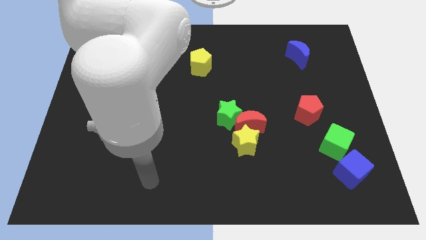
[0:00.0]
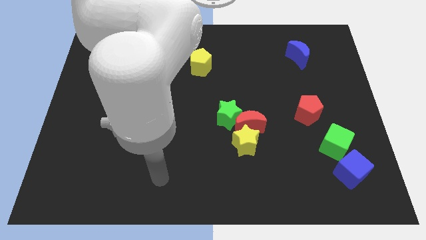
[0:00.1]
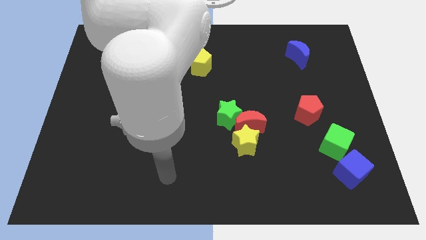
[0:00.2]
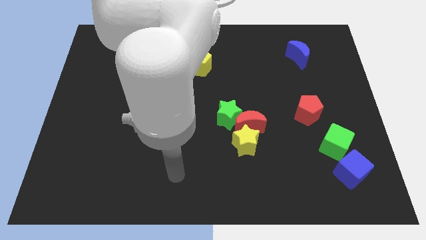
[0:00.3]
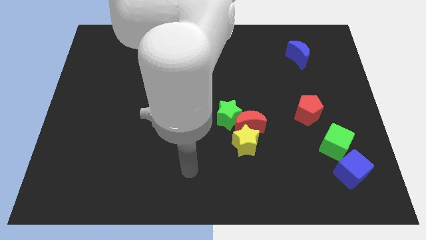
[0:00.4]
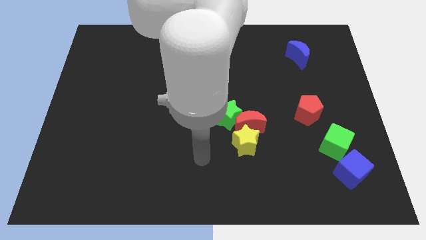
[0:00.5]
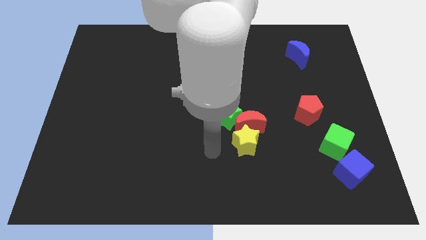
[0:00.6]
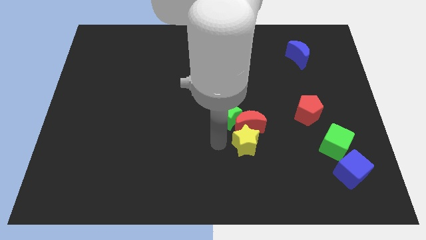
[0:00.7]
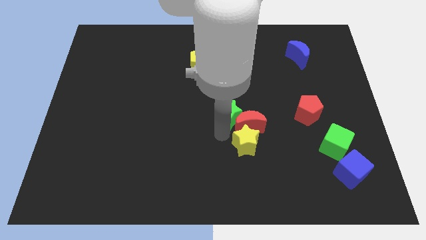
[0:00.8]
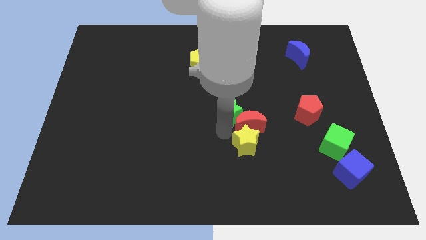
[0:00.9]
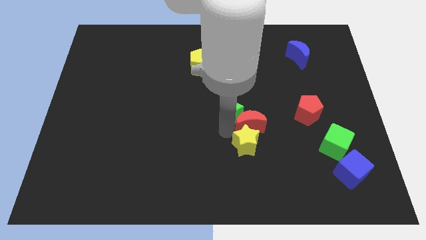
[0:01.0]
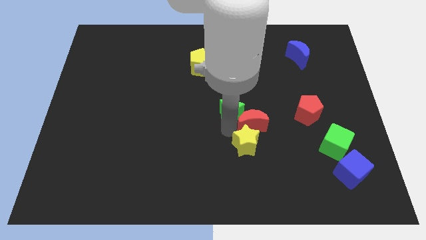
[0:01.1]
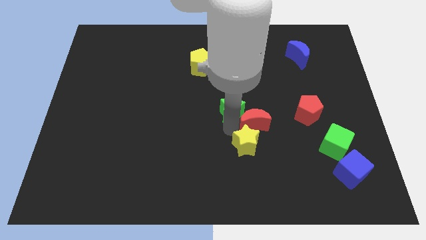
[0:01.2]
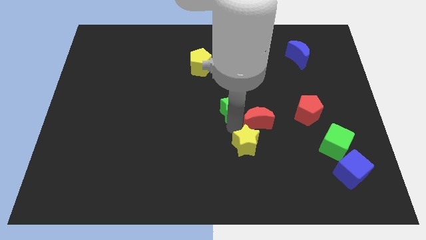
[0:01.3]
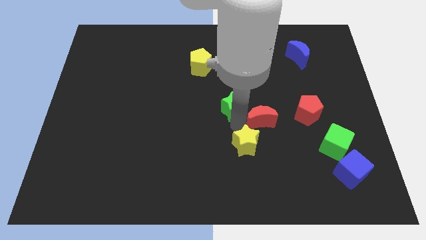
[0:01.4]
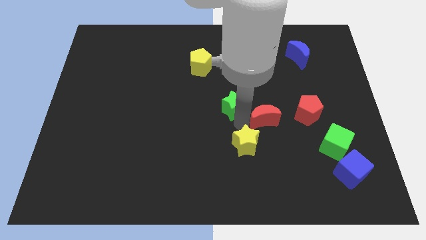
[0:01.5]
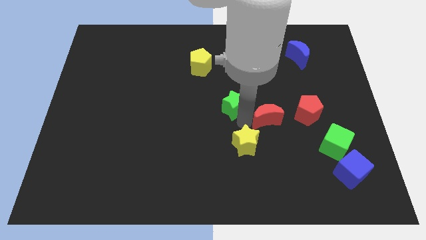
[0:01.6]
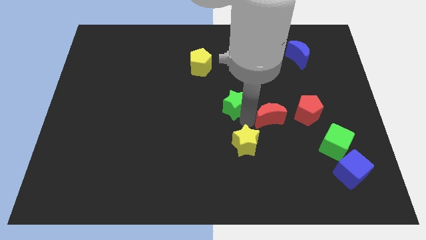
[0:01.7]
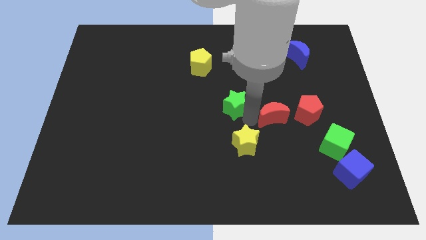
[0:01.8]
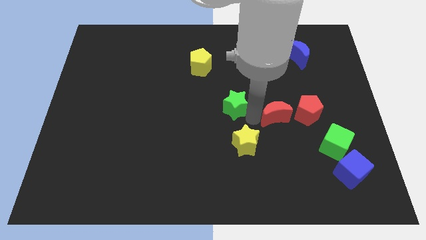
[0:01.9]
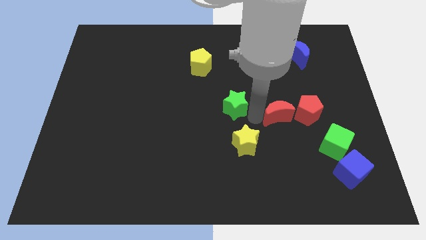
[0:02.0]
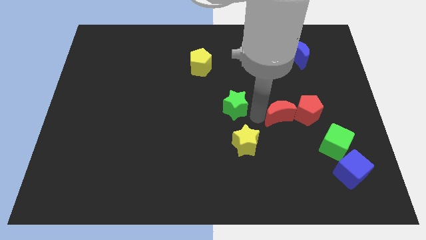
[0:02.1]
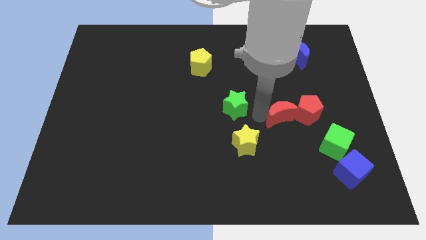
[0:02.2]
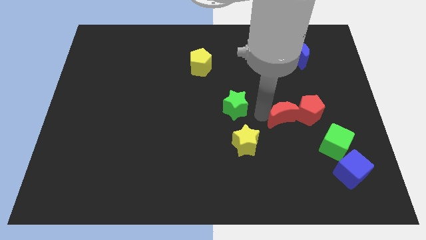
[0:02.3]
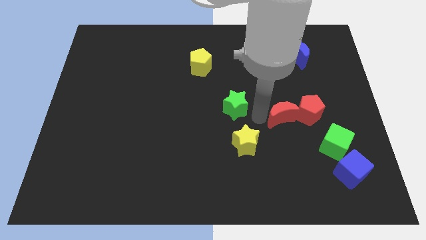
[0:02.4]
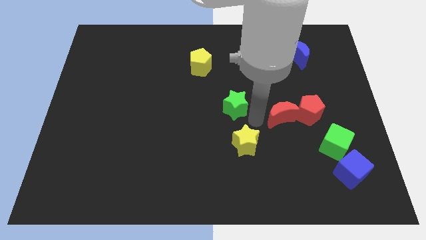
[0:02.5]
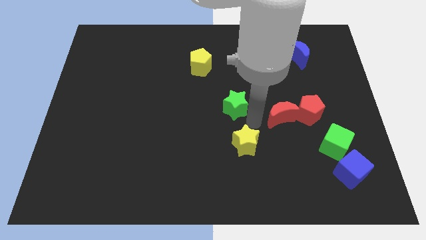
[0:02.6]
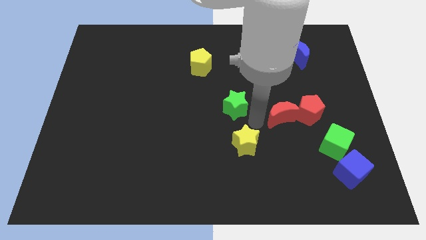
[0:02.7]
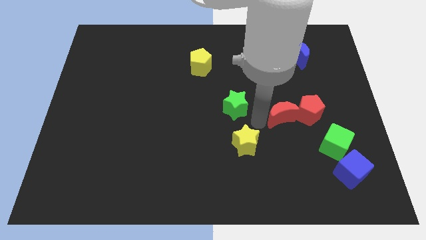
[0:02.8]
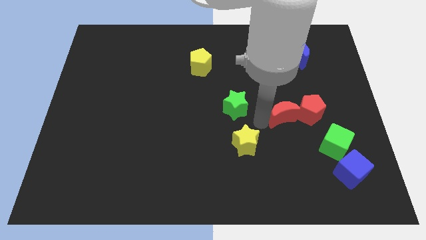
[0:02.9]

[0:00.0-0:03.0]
separate the red moon from the yellow star and green star

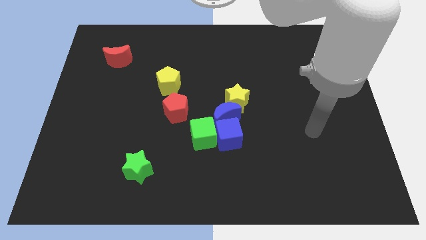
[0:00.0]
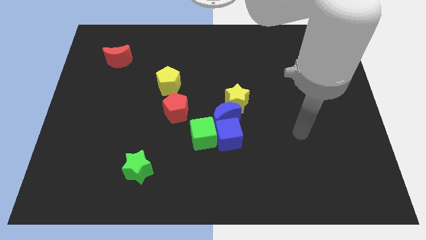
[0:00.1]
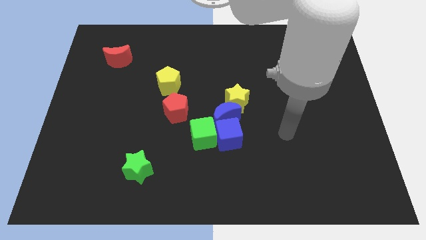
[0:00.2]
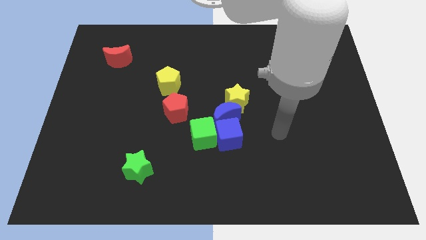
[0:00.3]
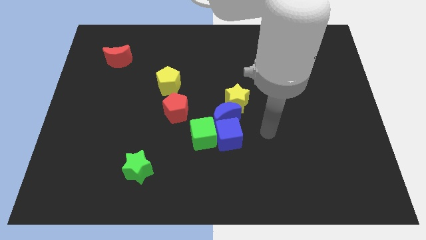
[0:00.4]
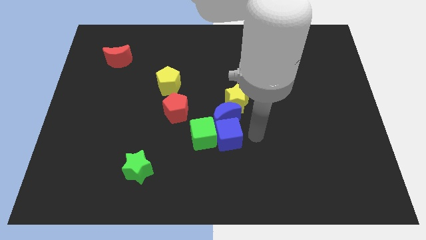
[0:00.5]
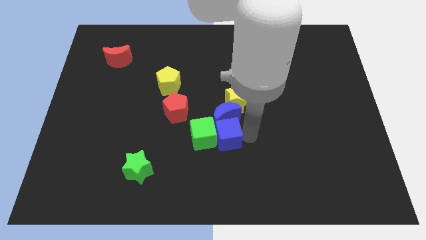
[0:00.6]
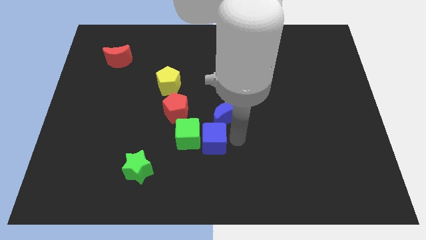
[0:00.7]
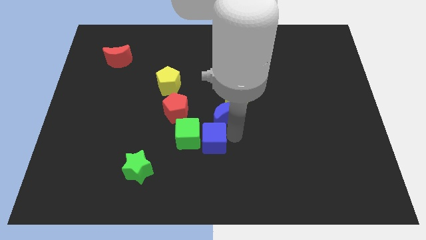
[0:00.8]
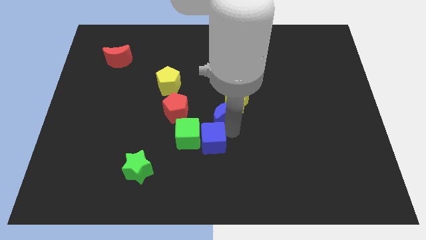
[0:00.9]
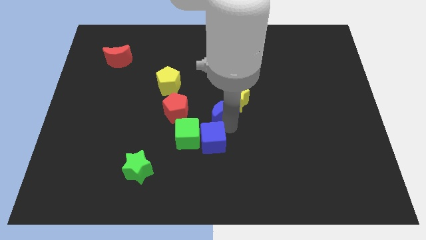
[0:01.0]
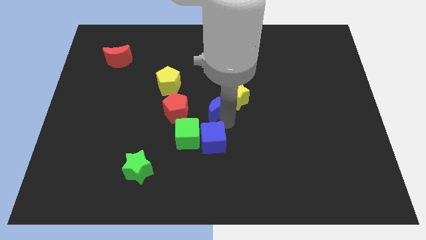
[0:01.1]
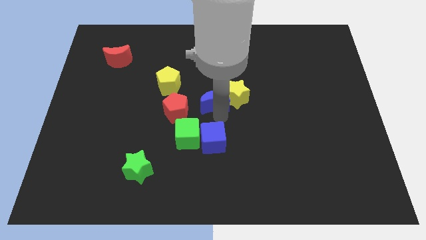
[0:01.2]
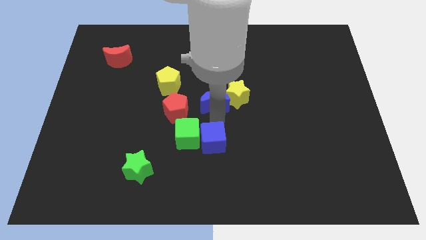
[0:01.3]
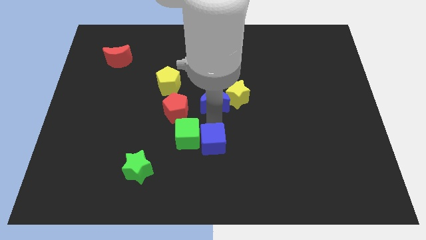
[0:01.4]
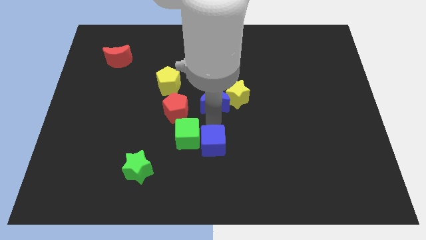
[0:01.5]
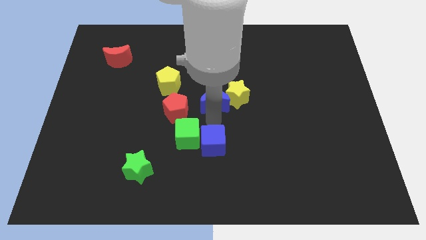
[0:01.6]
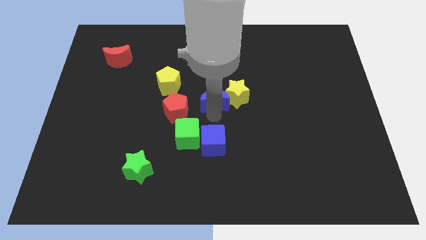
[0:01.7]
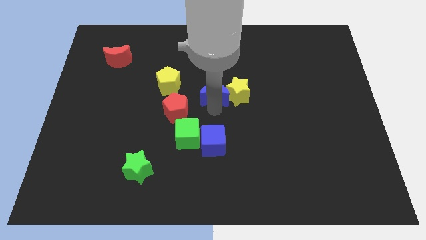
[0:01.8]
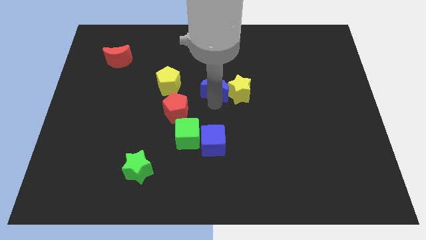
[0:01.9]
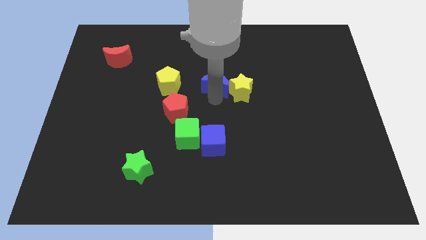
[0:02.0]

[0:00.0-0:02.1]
separate the blue moon from the yellow star, blue cube, and green cube

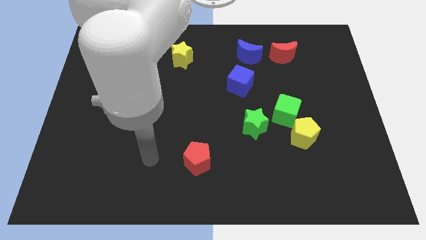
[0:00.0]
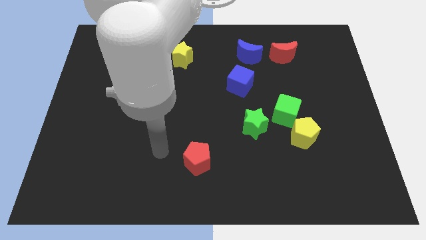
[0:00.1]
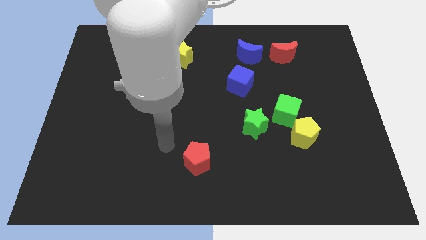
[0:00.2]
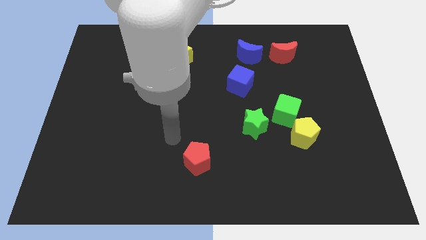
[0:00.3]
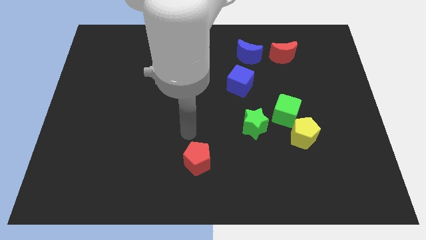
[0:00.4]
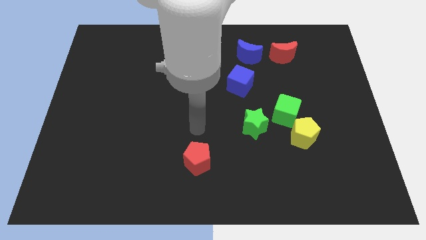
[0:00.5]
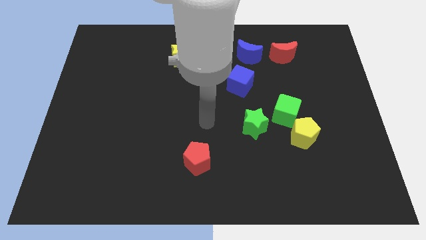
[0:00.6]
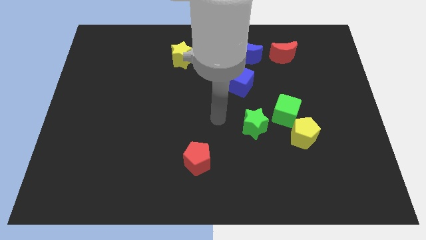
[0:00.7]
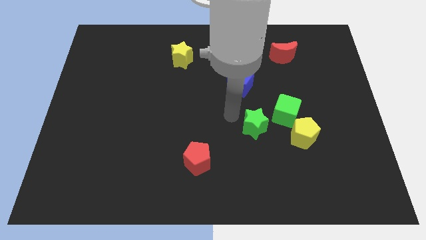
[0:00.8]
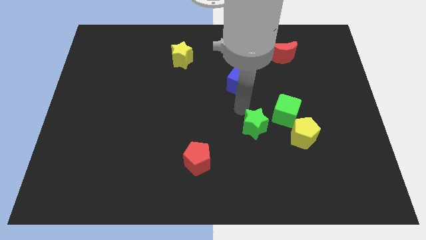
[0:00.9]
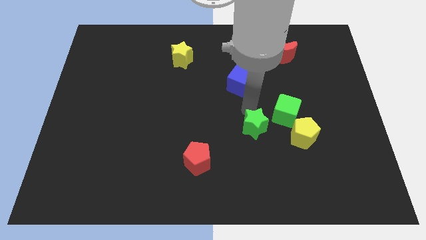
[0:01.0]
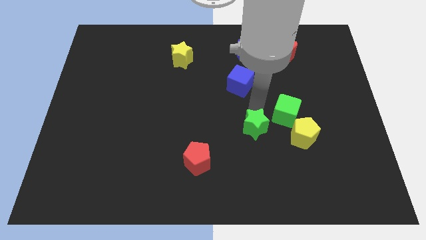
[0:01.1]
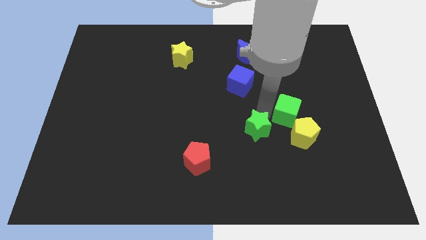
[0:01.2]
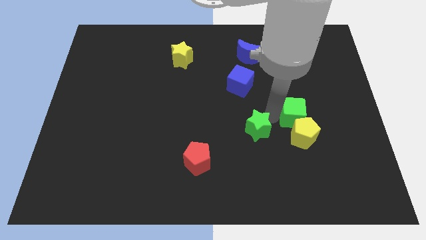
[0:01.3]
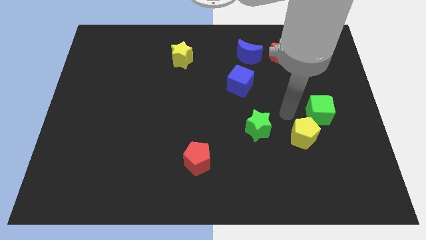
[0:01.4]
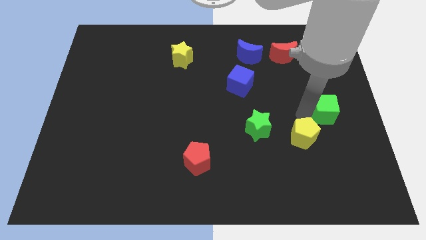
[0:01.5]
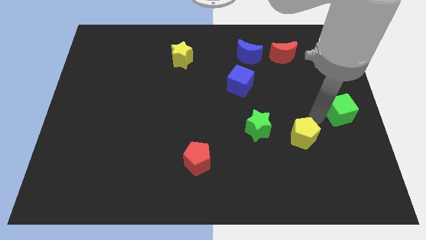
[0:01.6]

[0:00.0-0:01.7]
pull the yellow pentagon apart from the green cube

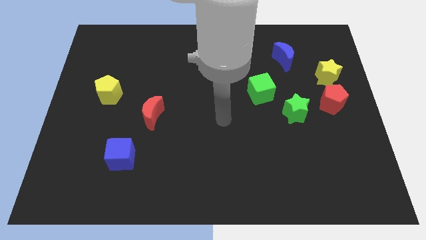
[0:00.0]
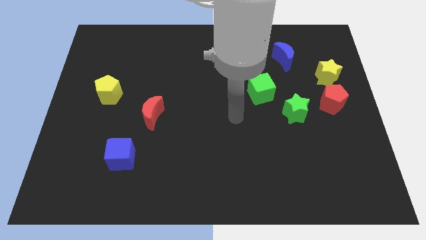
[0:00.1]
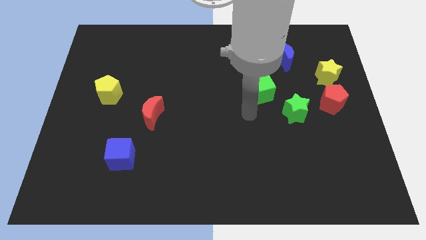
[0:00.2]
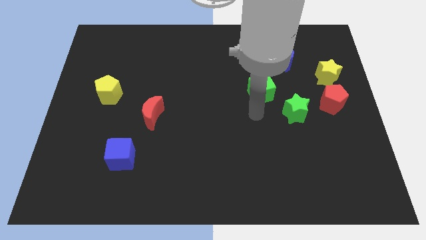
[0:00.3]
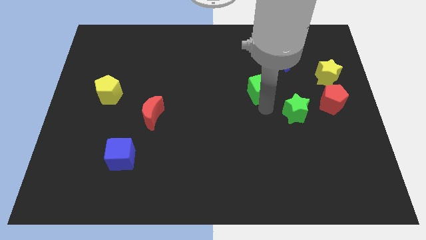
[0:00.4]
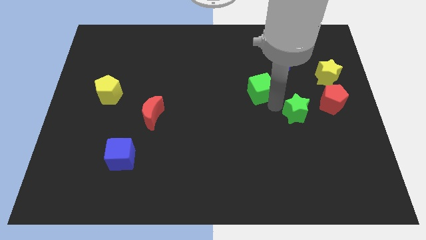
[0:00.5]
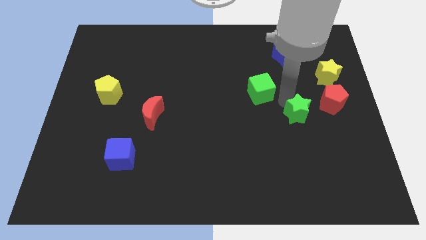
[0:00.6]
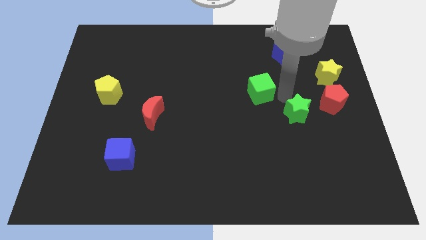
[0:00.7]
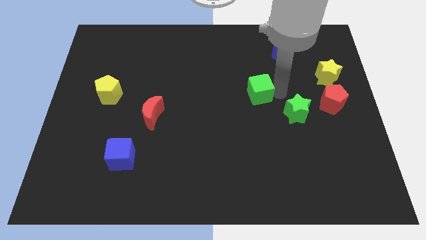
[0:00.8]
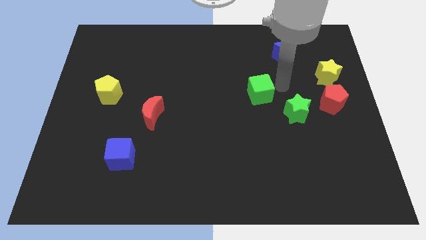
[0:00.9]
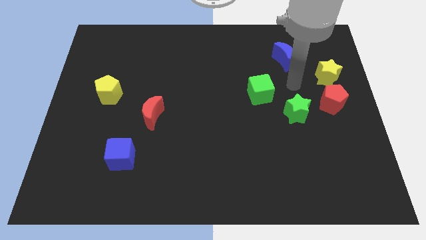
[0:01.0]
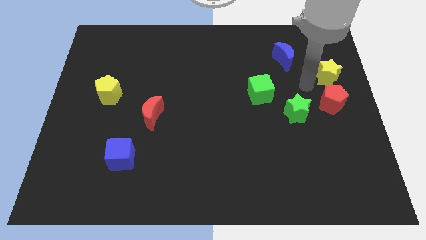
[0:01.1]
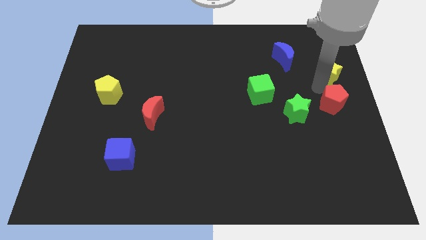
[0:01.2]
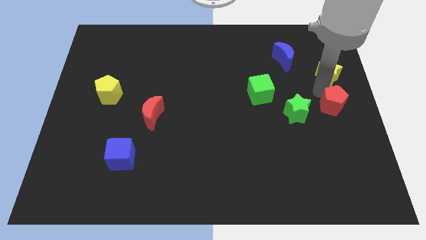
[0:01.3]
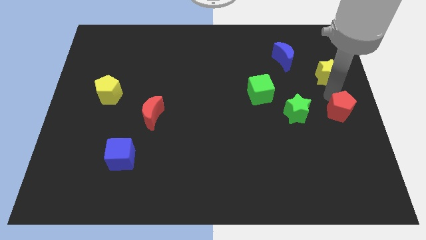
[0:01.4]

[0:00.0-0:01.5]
pull the yellow star apart from the red pentagon

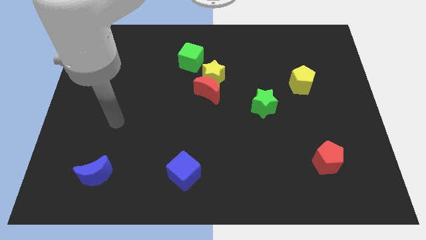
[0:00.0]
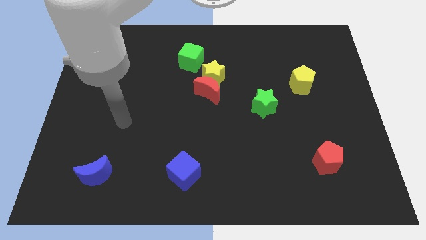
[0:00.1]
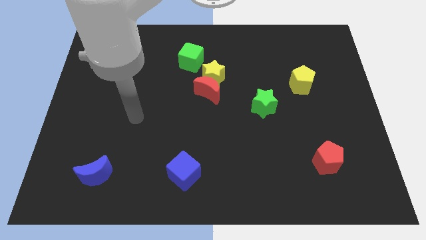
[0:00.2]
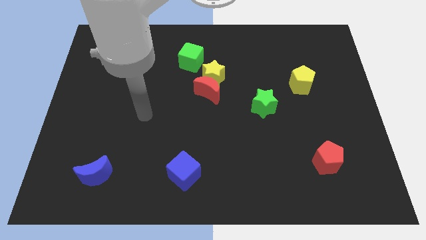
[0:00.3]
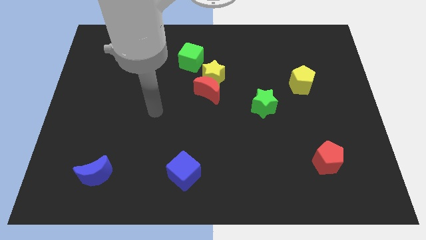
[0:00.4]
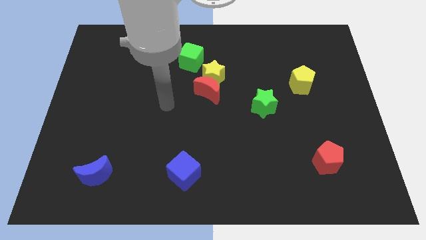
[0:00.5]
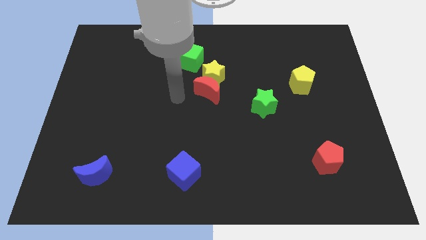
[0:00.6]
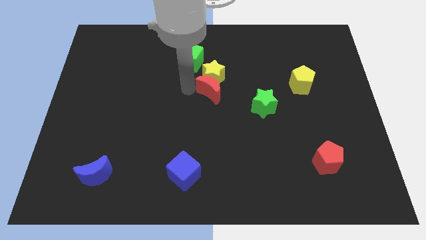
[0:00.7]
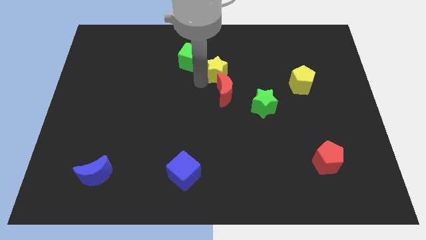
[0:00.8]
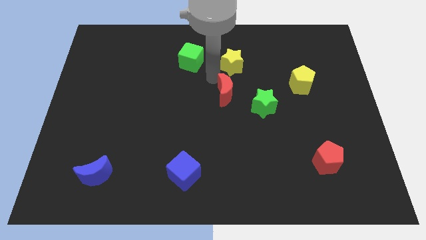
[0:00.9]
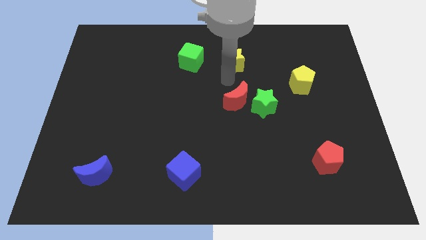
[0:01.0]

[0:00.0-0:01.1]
separate the red moon from the yellow star
